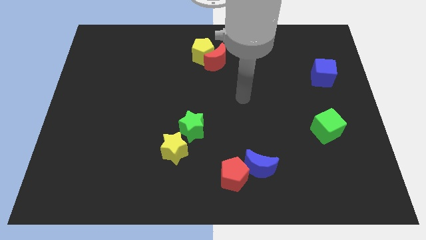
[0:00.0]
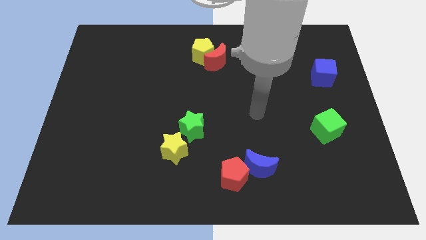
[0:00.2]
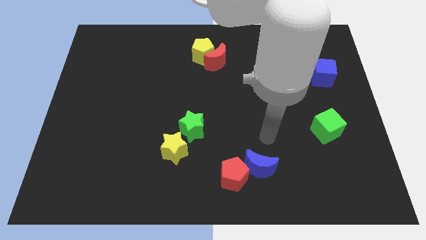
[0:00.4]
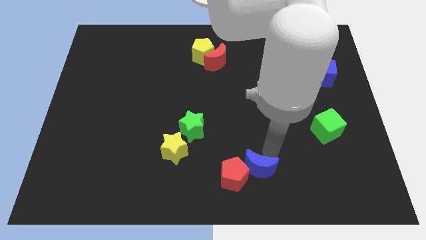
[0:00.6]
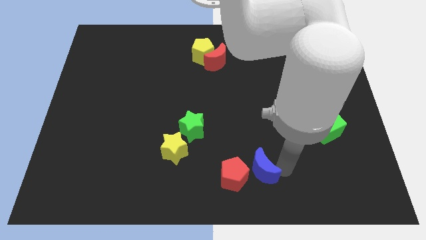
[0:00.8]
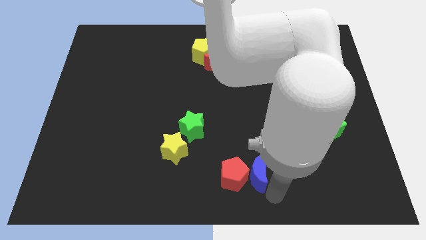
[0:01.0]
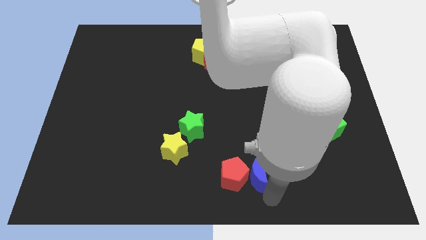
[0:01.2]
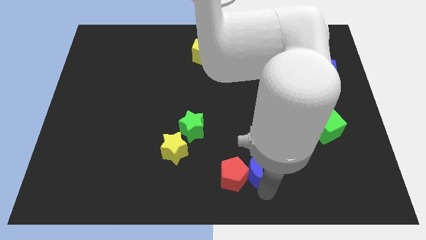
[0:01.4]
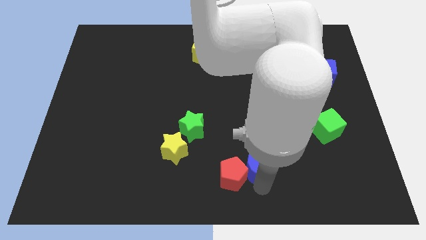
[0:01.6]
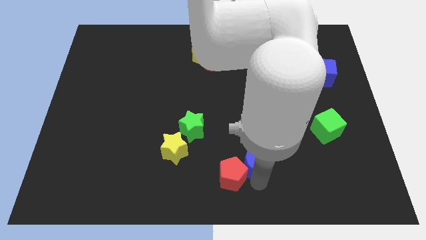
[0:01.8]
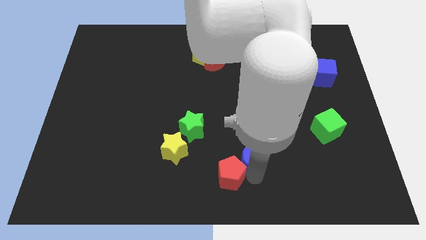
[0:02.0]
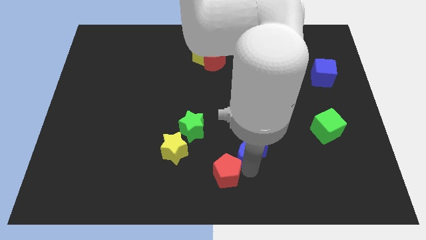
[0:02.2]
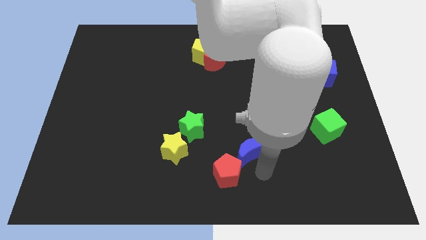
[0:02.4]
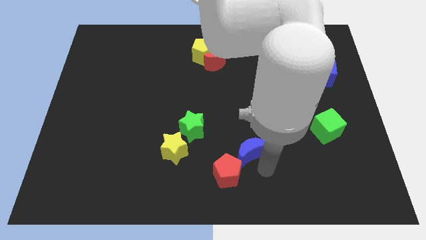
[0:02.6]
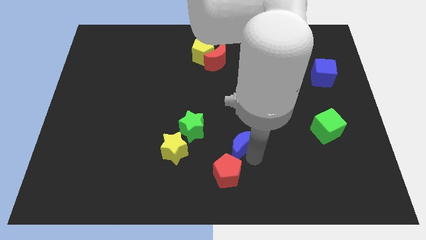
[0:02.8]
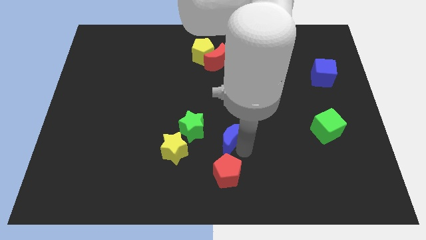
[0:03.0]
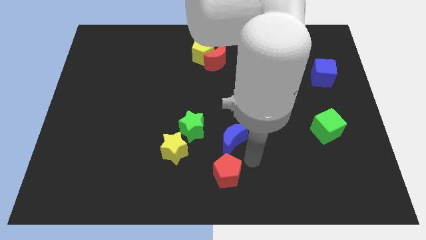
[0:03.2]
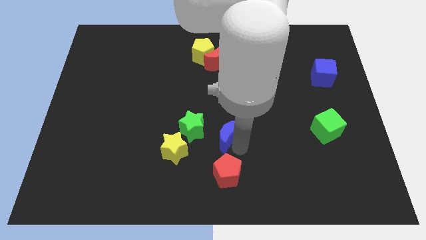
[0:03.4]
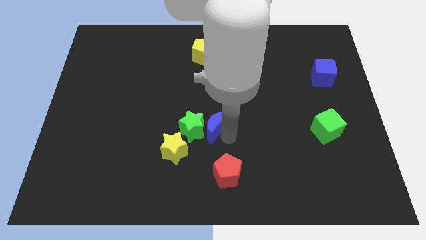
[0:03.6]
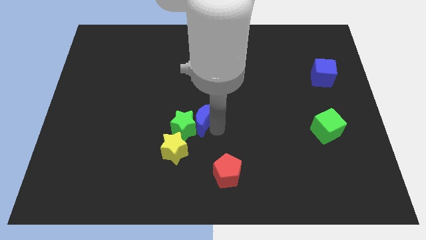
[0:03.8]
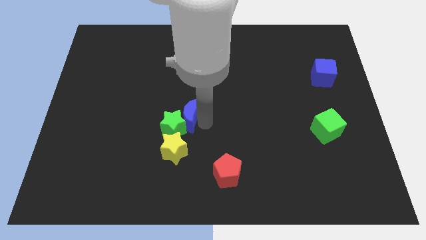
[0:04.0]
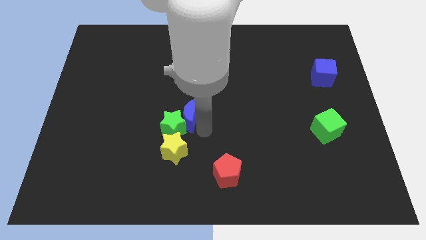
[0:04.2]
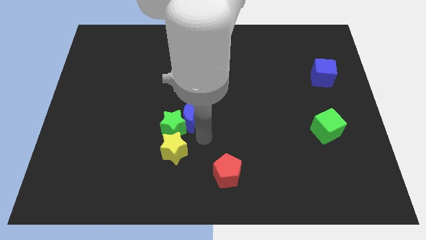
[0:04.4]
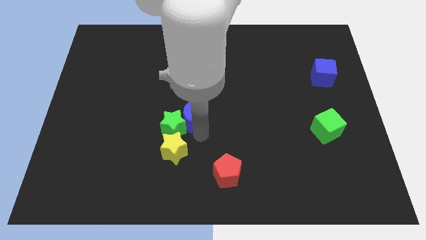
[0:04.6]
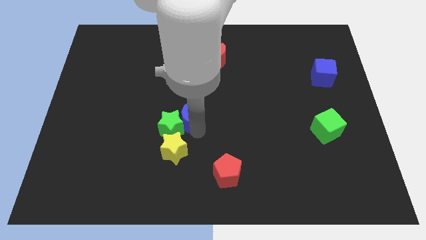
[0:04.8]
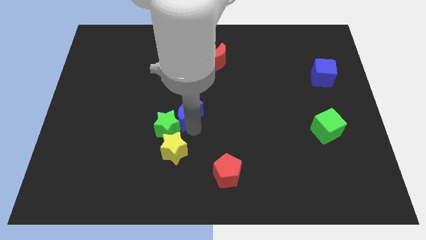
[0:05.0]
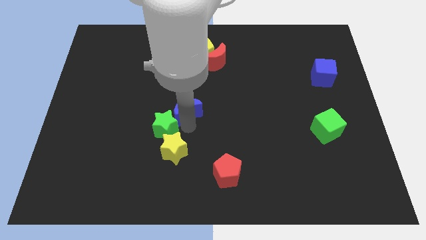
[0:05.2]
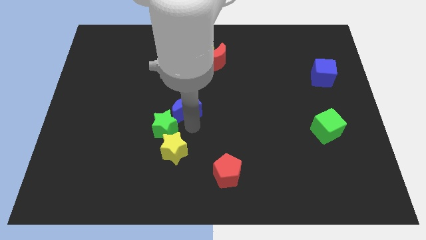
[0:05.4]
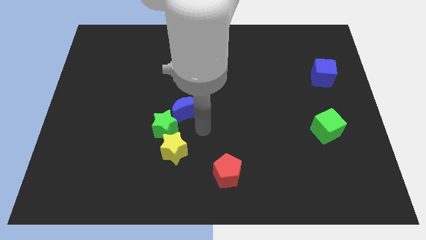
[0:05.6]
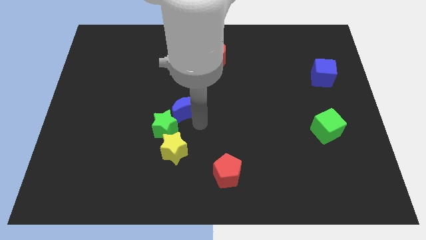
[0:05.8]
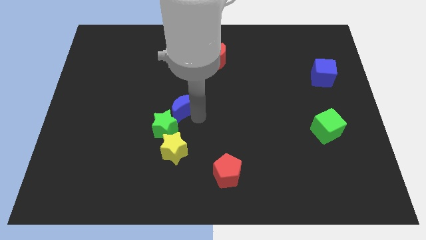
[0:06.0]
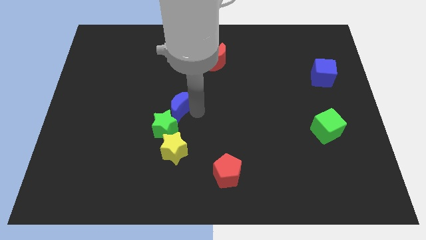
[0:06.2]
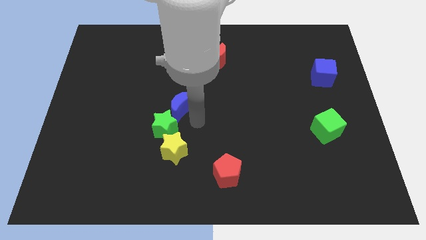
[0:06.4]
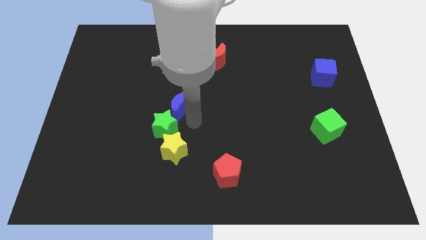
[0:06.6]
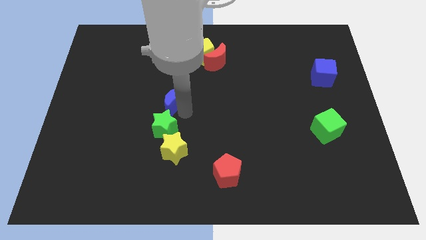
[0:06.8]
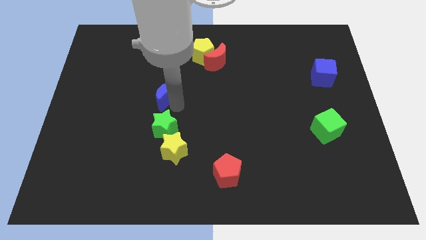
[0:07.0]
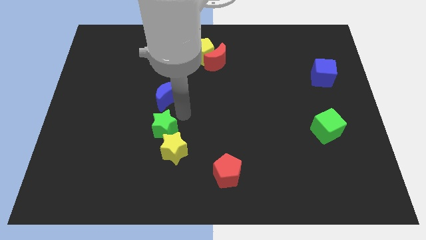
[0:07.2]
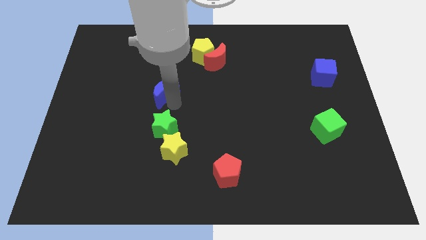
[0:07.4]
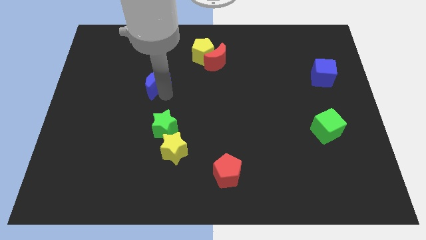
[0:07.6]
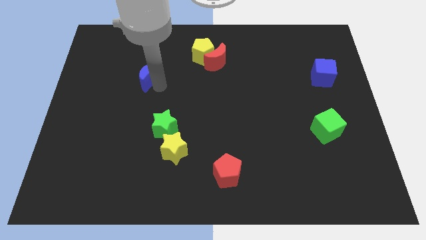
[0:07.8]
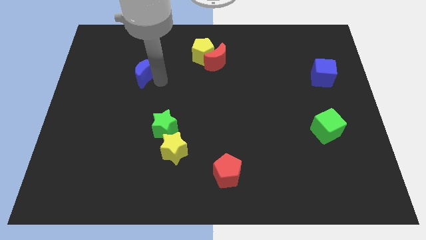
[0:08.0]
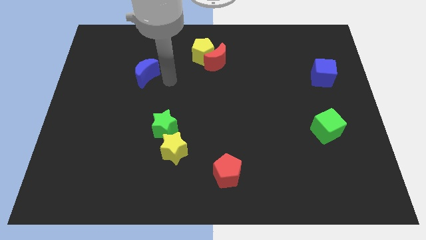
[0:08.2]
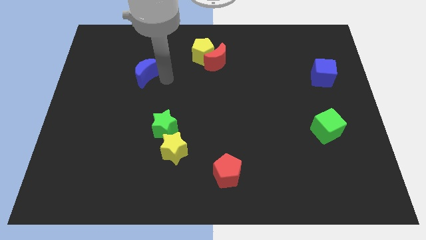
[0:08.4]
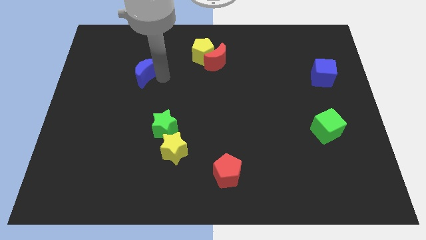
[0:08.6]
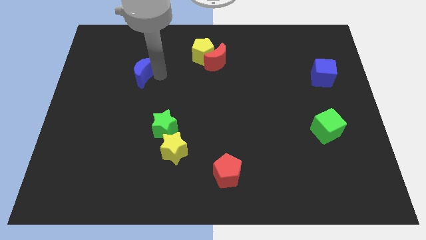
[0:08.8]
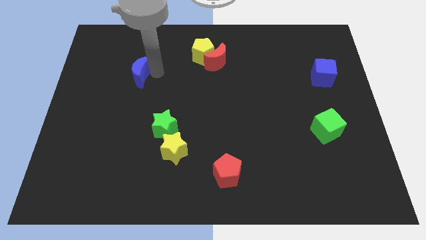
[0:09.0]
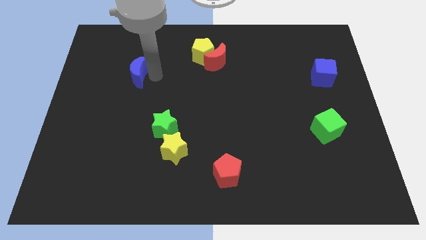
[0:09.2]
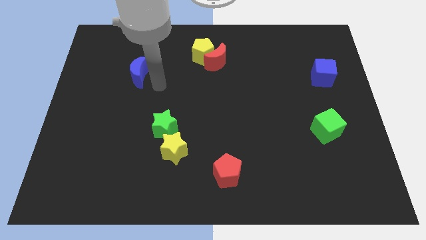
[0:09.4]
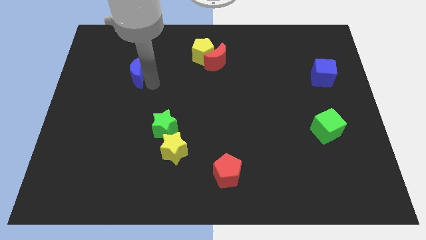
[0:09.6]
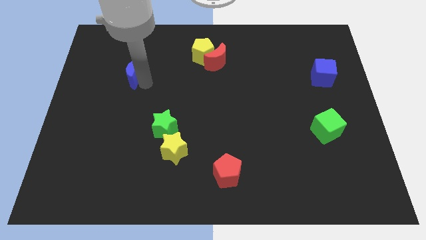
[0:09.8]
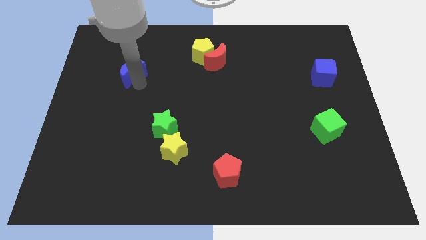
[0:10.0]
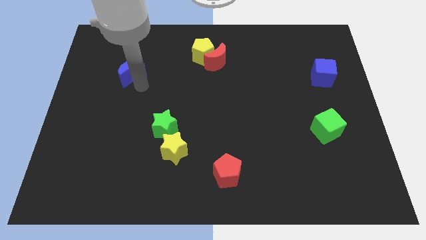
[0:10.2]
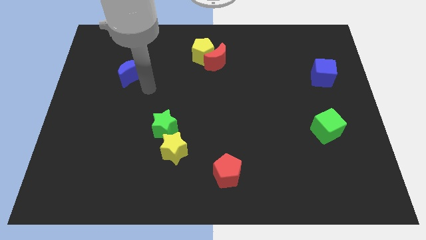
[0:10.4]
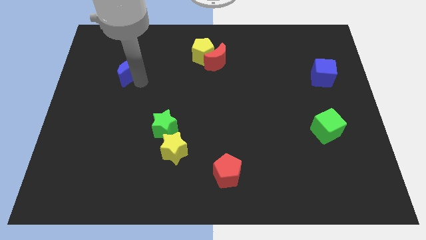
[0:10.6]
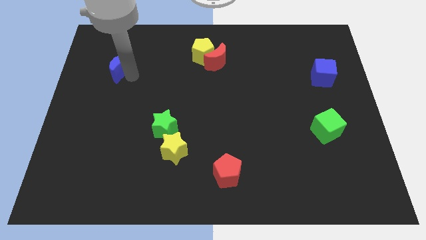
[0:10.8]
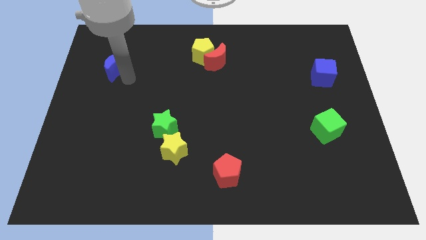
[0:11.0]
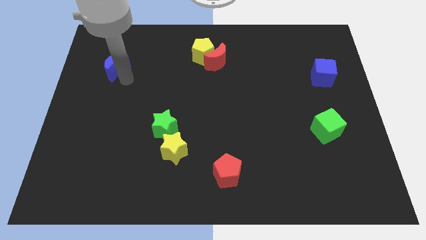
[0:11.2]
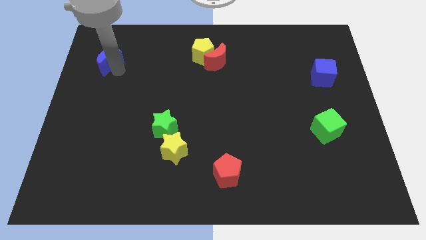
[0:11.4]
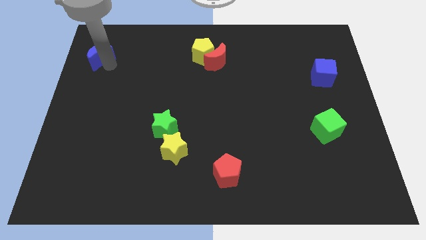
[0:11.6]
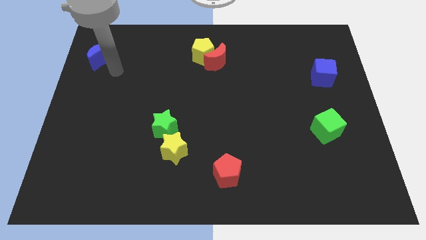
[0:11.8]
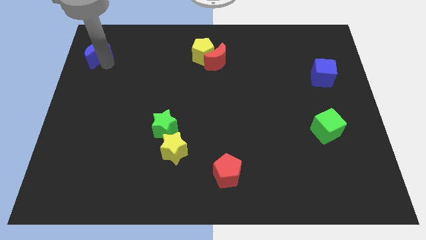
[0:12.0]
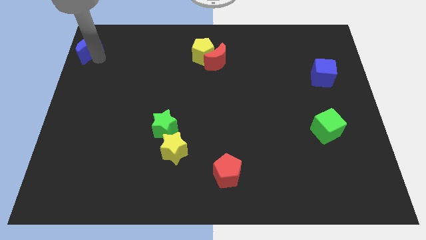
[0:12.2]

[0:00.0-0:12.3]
move the blue moon to the top left of the board
